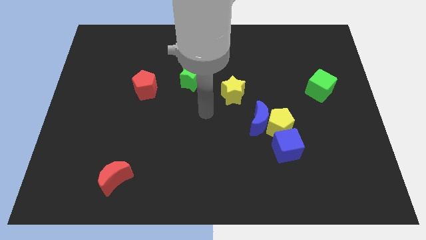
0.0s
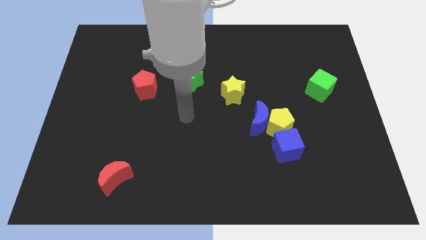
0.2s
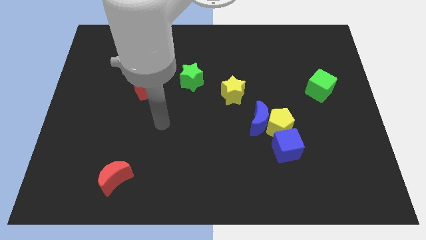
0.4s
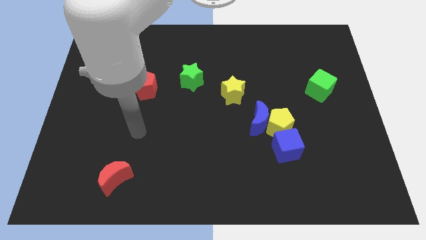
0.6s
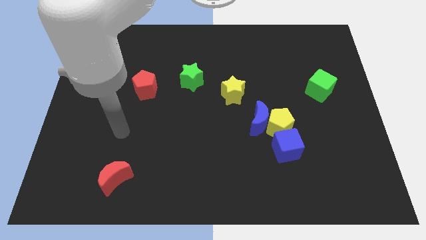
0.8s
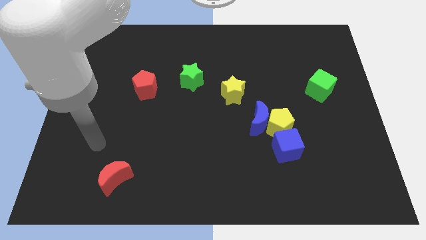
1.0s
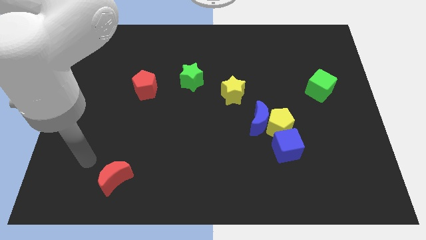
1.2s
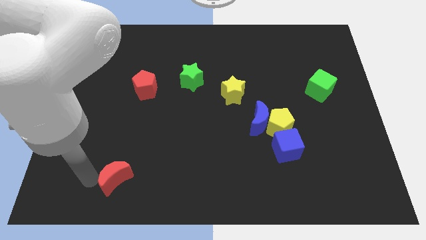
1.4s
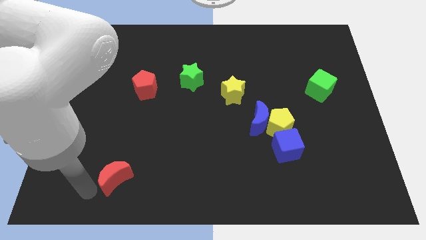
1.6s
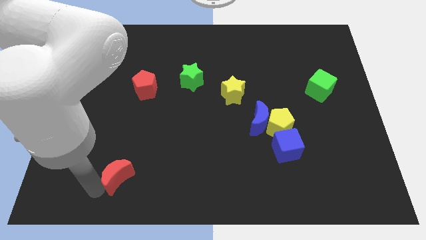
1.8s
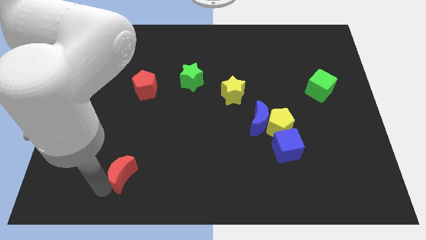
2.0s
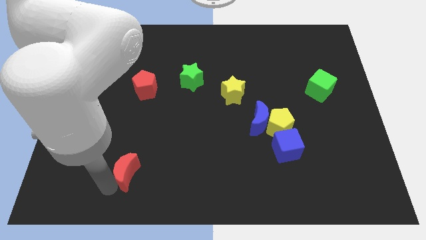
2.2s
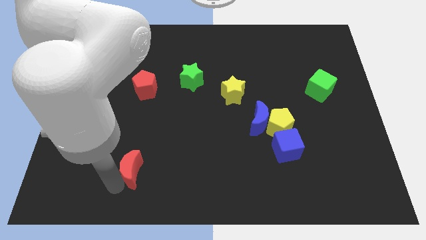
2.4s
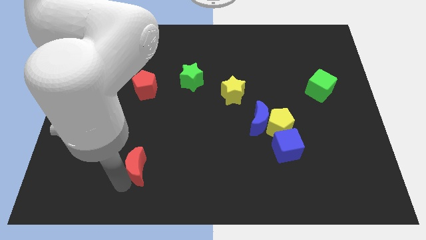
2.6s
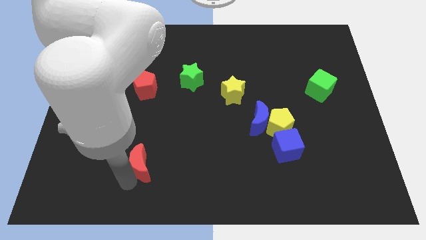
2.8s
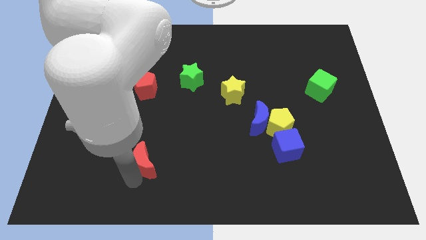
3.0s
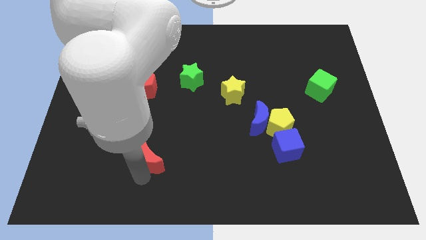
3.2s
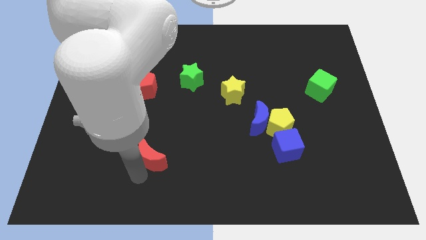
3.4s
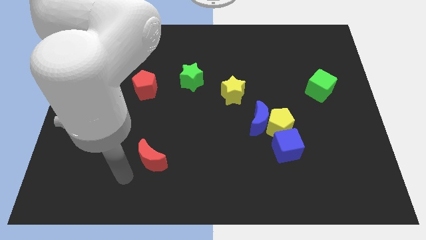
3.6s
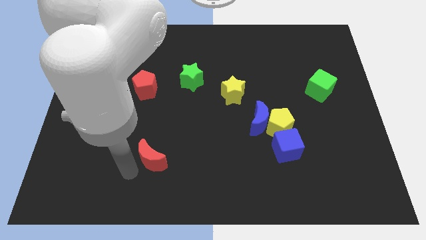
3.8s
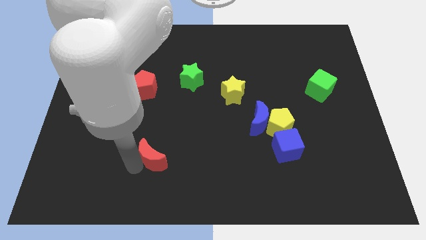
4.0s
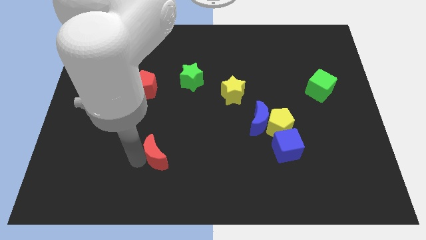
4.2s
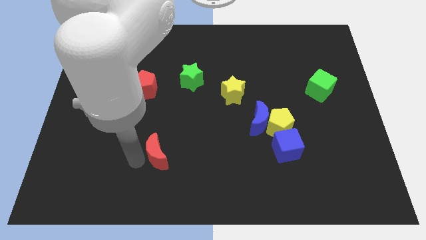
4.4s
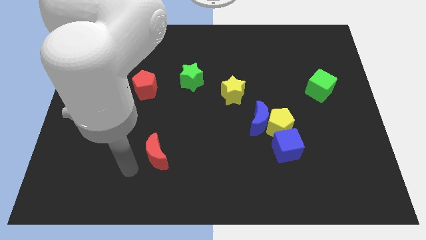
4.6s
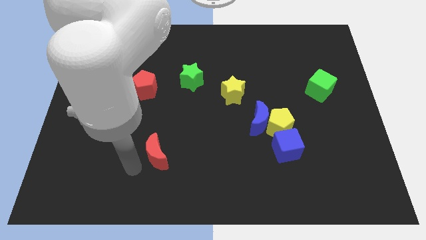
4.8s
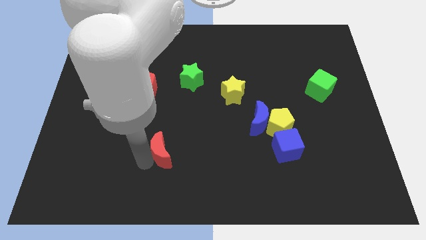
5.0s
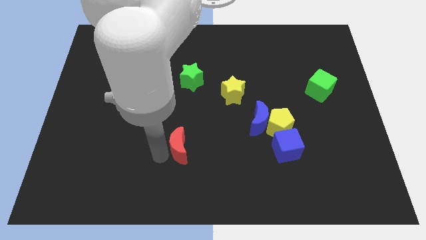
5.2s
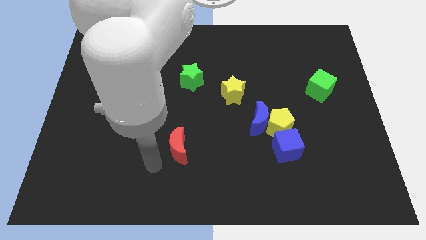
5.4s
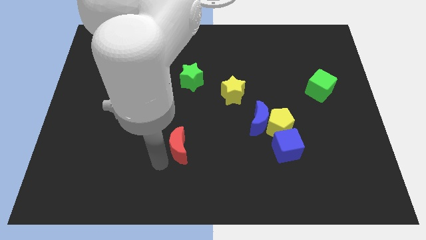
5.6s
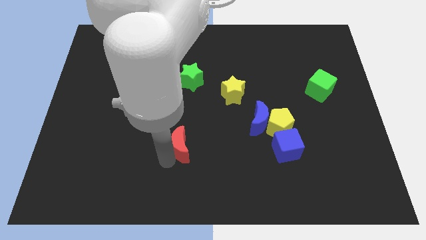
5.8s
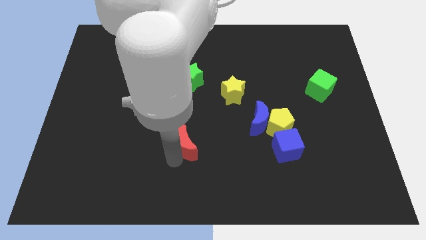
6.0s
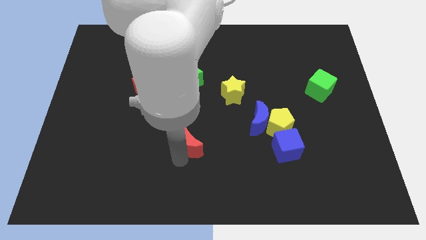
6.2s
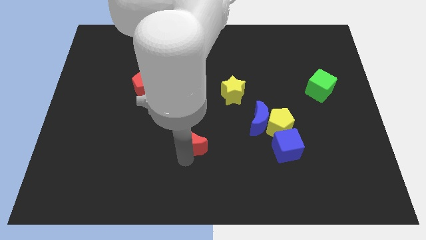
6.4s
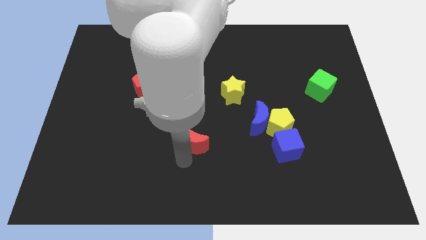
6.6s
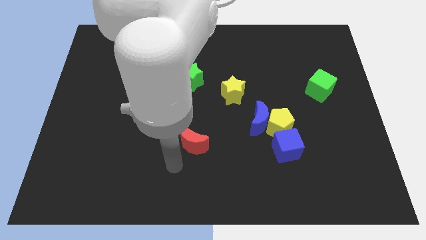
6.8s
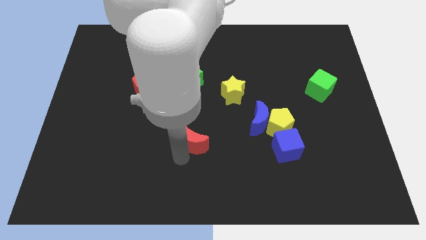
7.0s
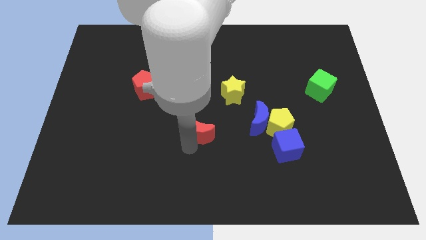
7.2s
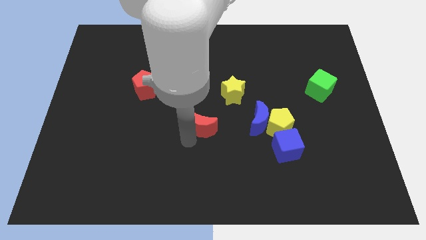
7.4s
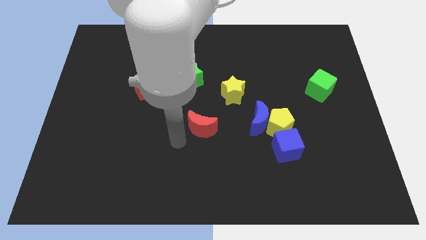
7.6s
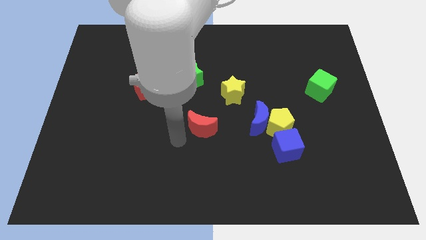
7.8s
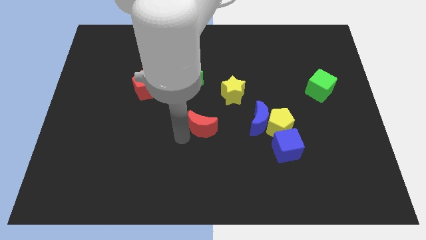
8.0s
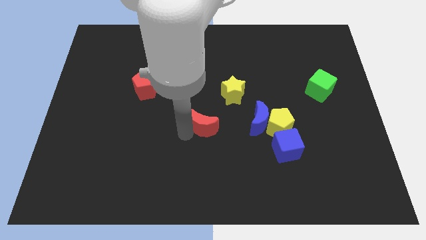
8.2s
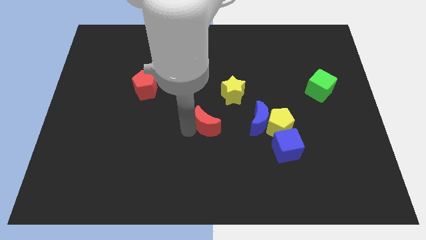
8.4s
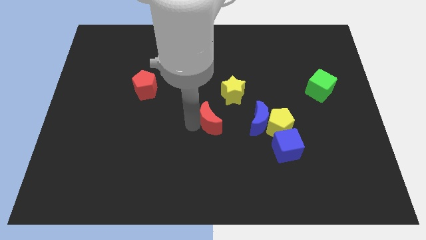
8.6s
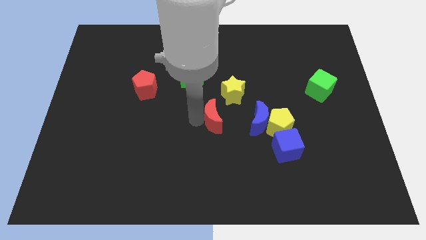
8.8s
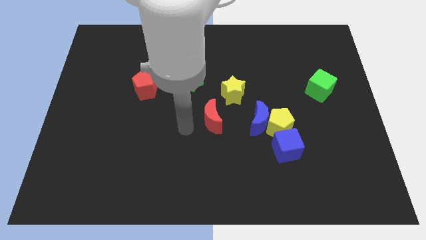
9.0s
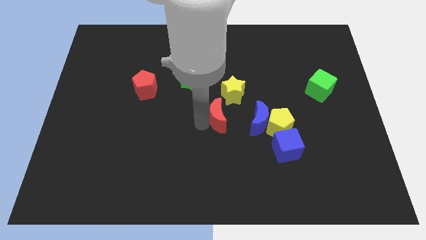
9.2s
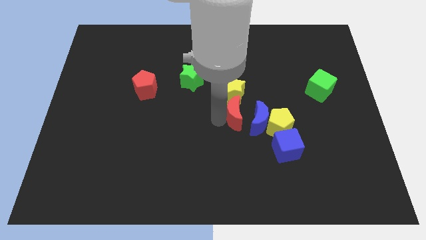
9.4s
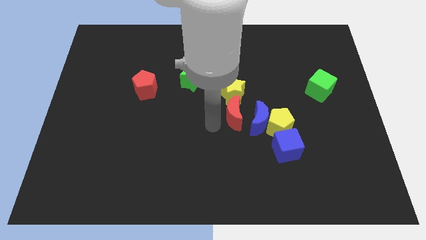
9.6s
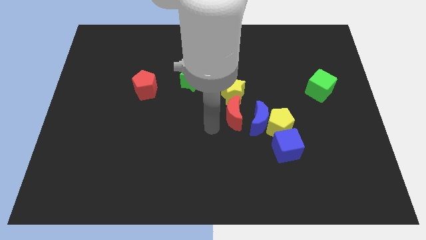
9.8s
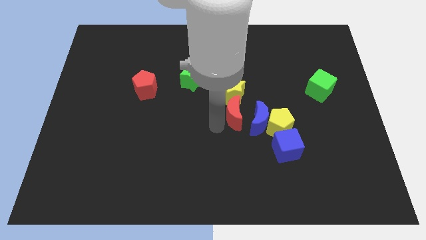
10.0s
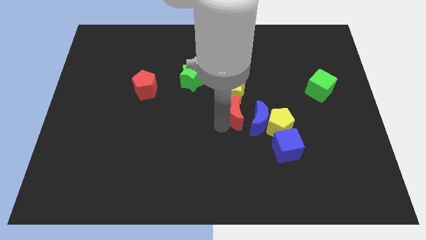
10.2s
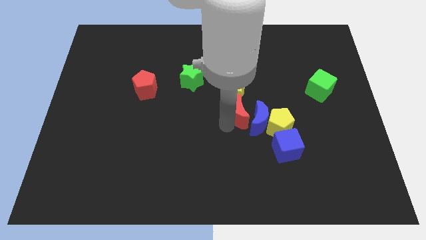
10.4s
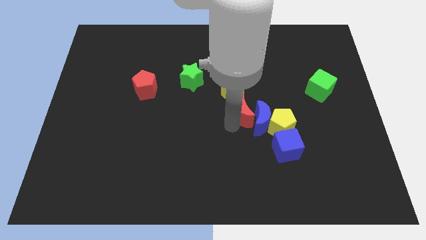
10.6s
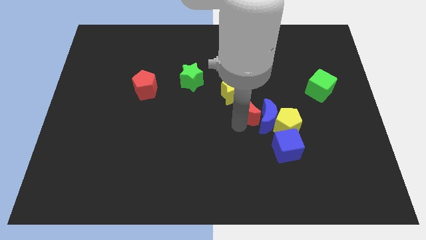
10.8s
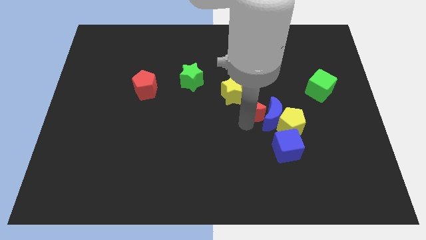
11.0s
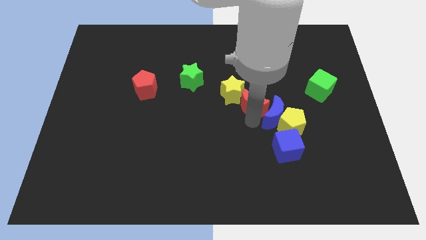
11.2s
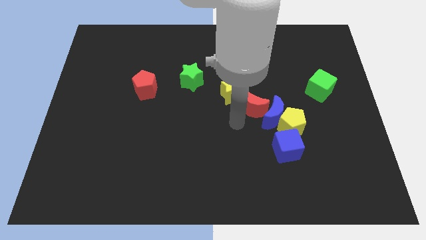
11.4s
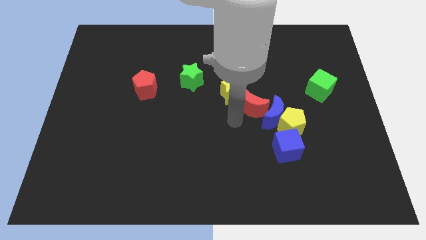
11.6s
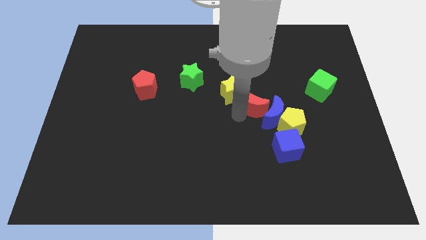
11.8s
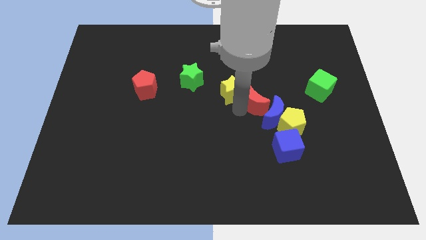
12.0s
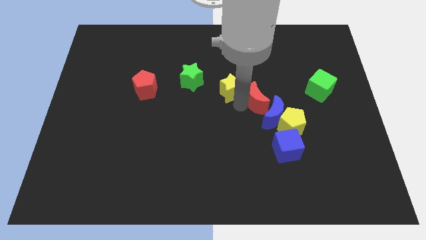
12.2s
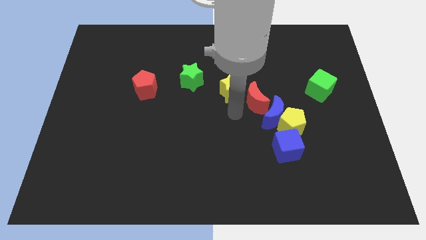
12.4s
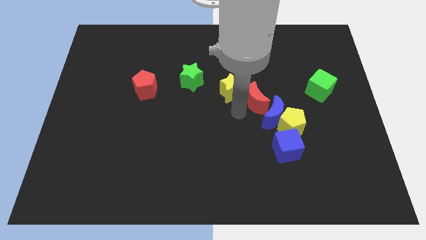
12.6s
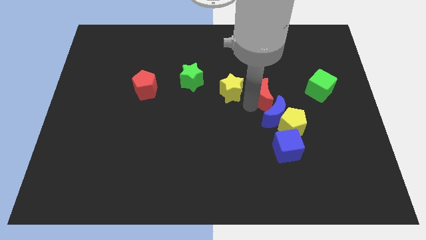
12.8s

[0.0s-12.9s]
move the red moon to the left of the green cube
